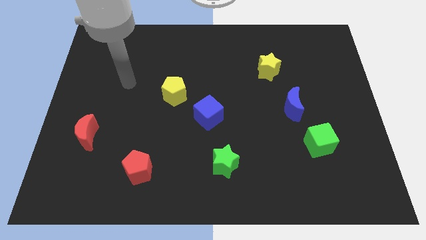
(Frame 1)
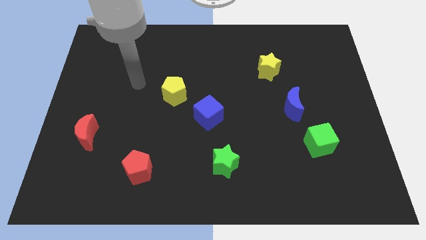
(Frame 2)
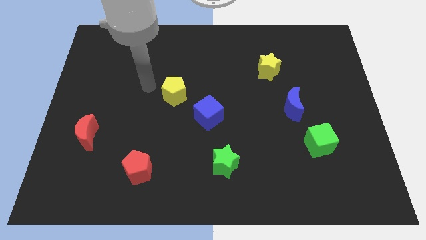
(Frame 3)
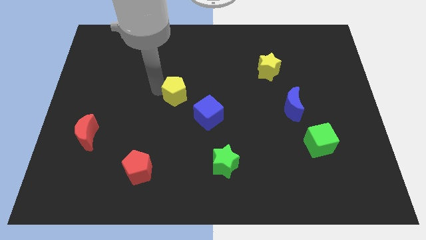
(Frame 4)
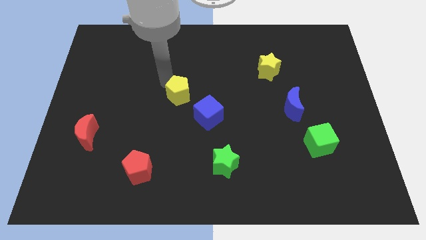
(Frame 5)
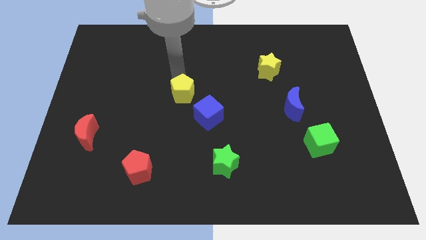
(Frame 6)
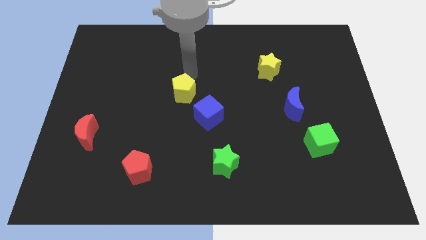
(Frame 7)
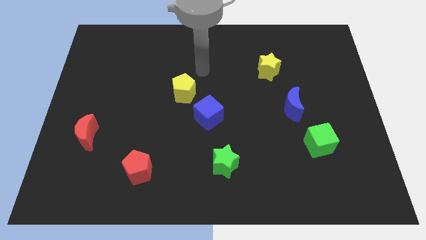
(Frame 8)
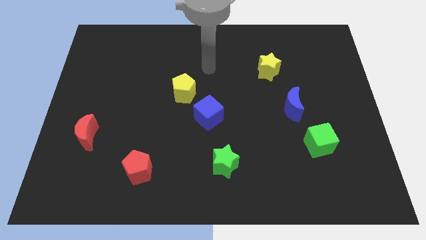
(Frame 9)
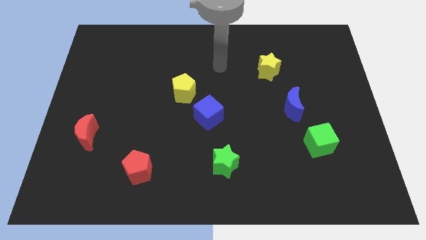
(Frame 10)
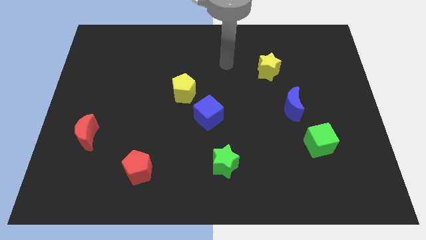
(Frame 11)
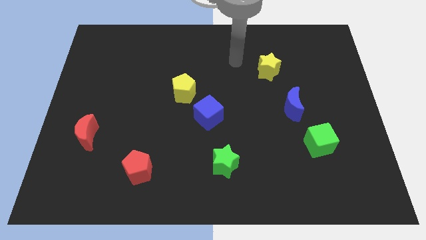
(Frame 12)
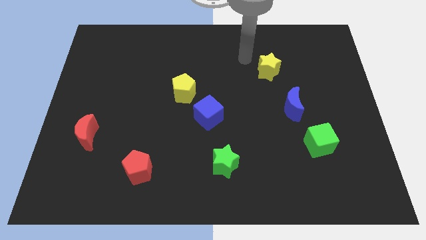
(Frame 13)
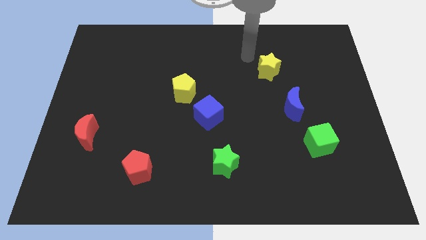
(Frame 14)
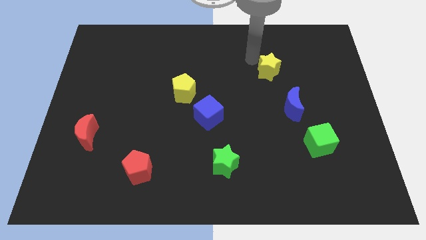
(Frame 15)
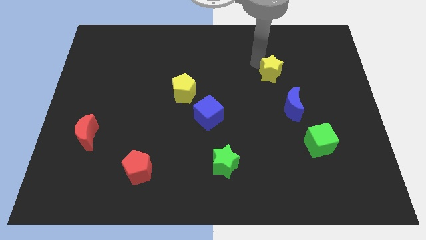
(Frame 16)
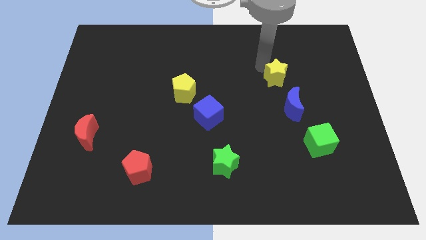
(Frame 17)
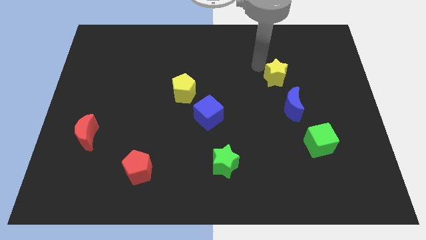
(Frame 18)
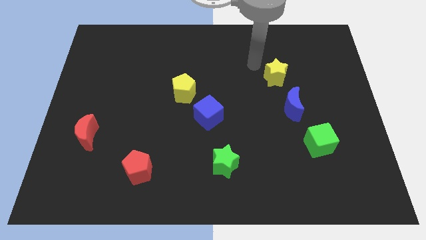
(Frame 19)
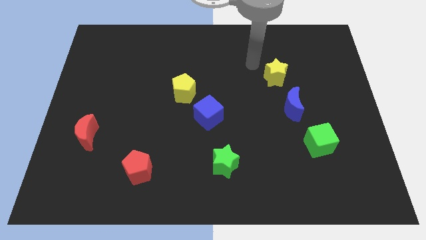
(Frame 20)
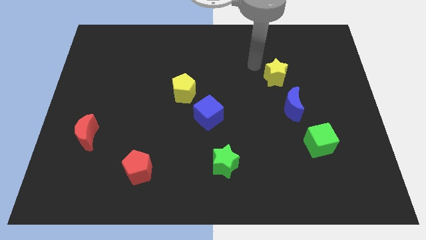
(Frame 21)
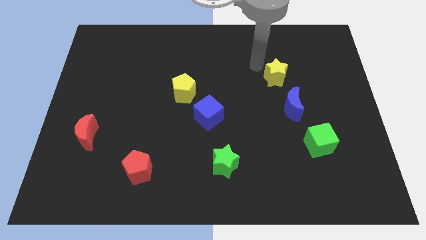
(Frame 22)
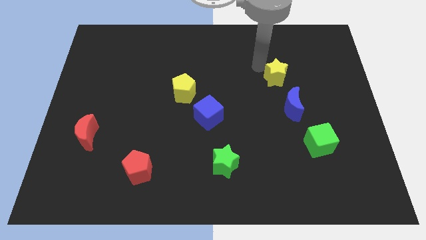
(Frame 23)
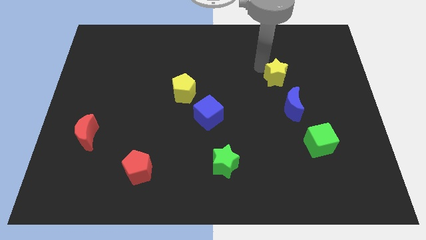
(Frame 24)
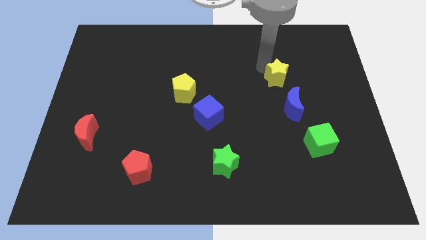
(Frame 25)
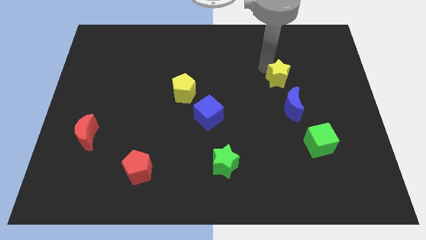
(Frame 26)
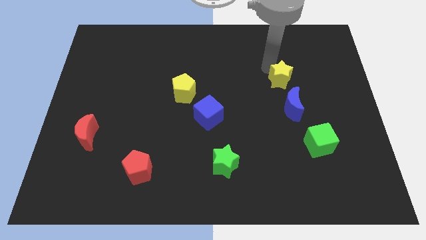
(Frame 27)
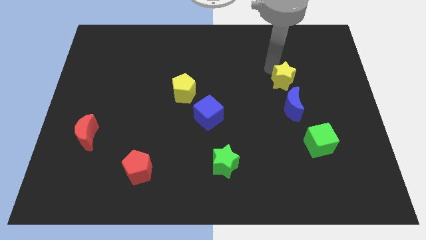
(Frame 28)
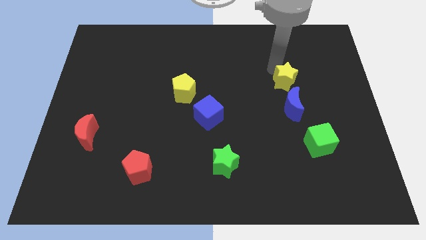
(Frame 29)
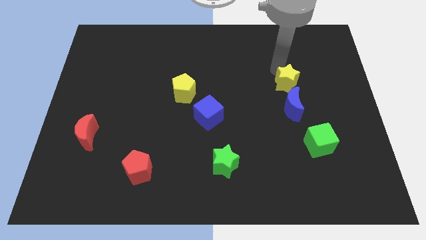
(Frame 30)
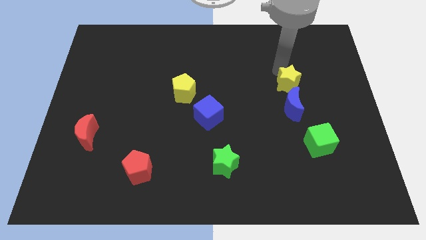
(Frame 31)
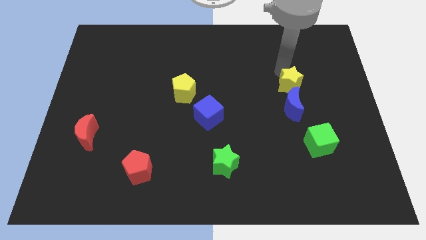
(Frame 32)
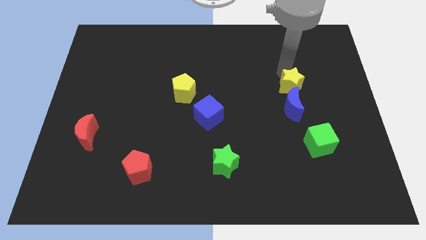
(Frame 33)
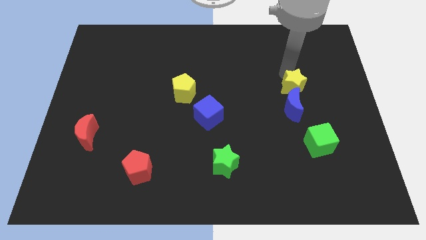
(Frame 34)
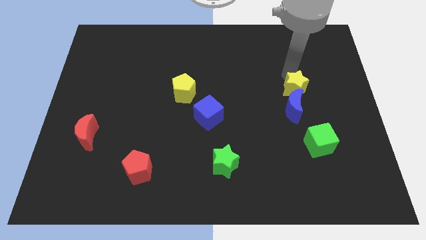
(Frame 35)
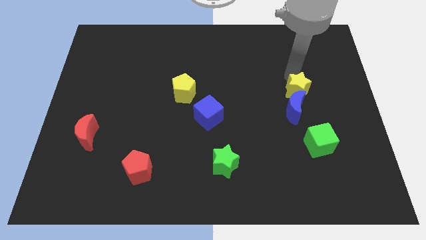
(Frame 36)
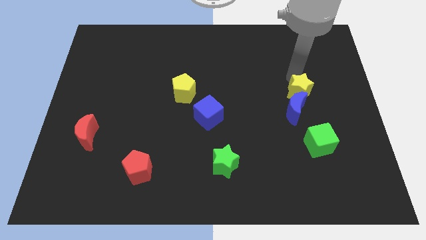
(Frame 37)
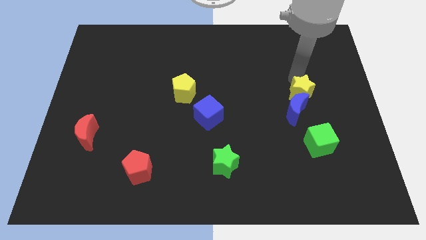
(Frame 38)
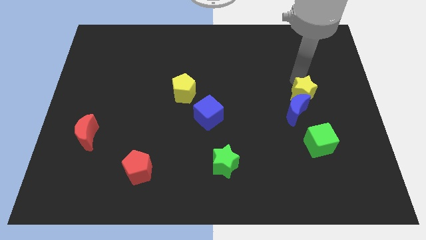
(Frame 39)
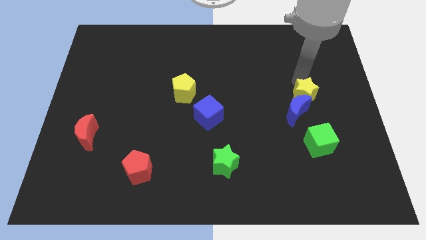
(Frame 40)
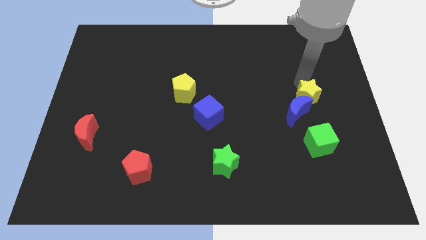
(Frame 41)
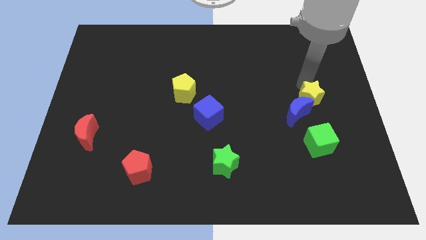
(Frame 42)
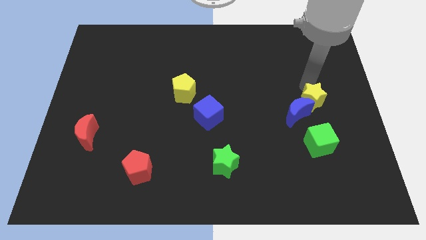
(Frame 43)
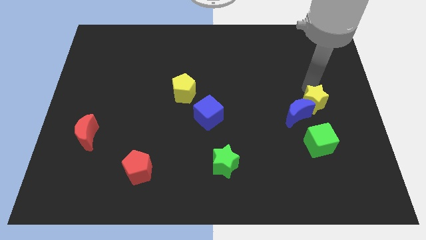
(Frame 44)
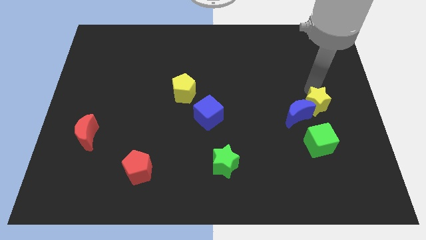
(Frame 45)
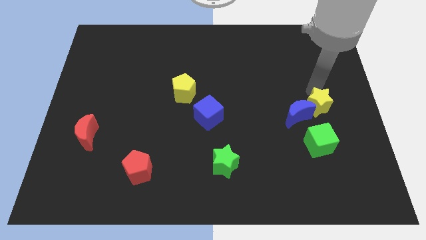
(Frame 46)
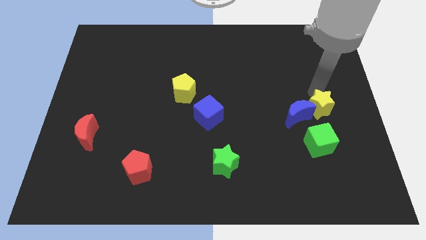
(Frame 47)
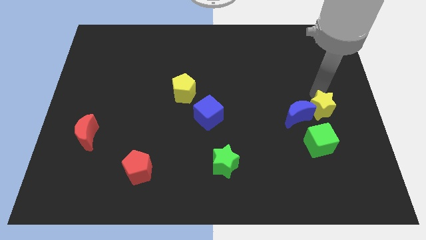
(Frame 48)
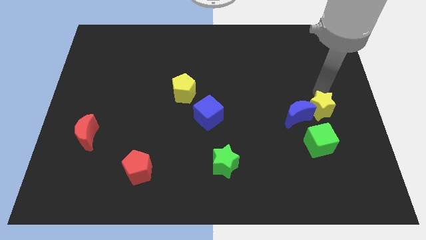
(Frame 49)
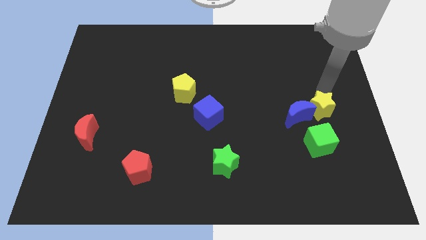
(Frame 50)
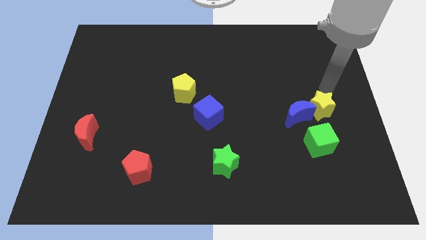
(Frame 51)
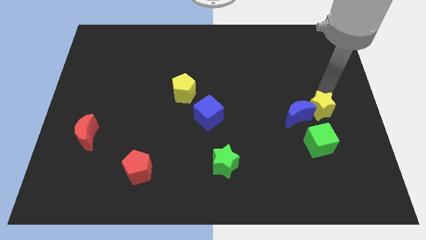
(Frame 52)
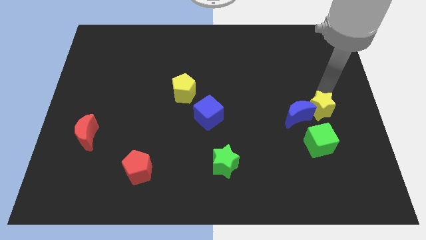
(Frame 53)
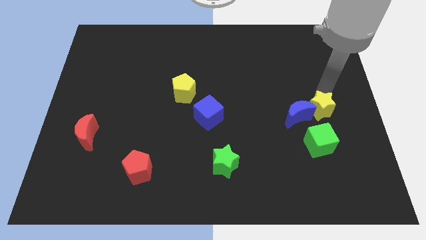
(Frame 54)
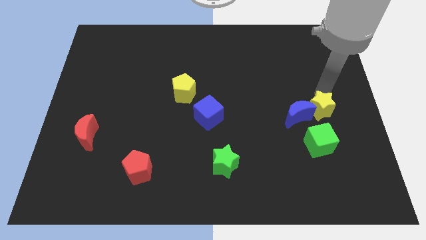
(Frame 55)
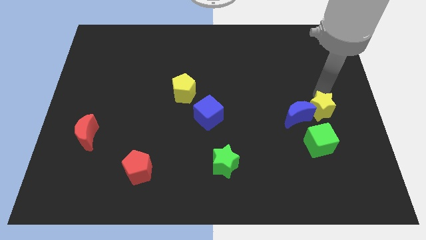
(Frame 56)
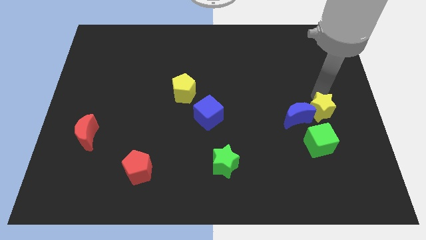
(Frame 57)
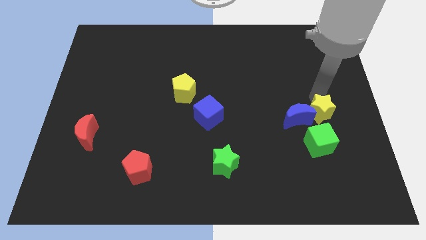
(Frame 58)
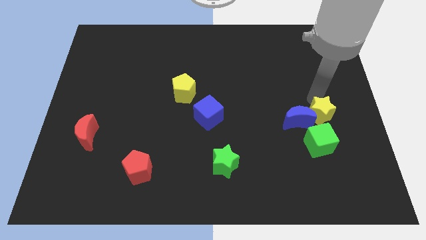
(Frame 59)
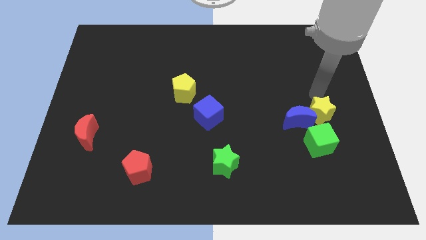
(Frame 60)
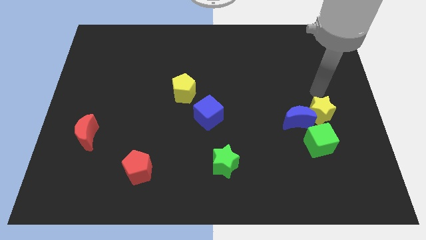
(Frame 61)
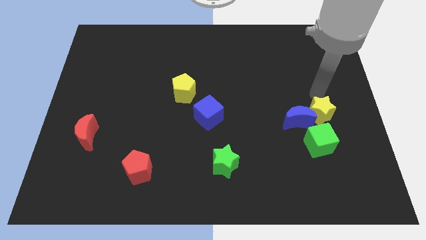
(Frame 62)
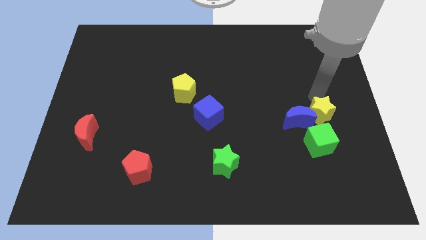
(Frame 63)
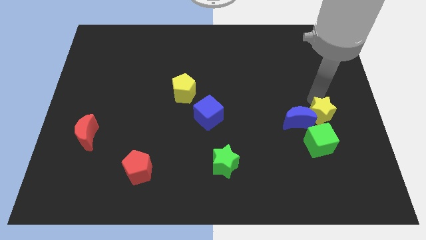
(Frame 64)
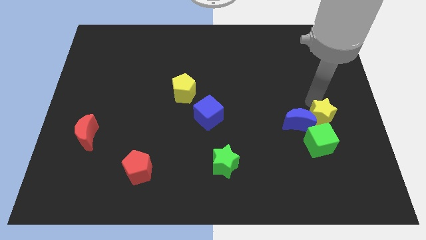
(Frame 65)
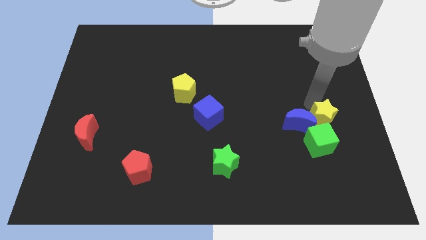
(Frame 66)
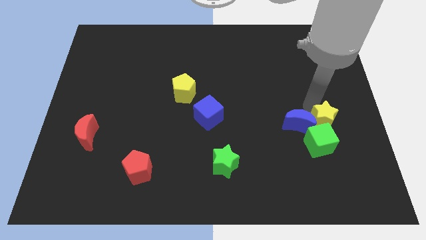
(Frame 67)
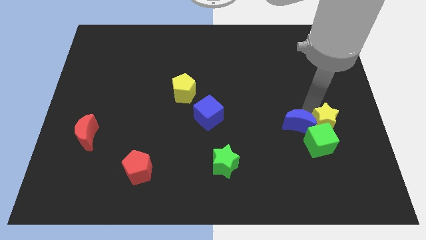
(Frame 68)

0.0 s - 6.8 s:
push the yellow star towards the green cube

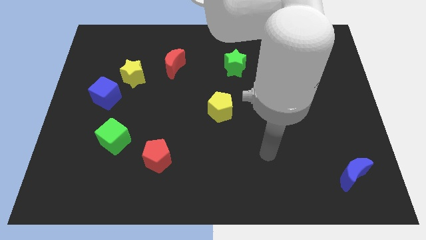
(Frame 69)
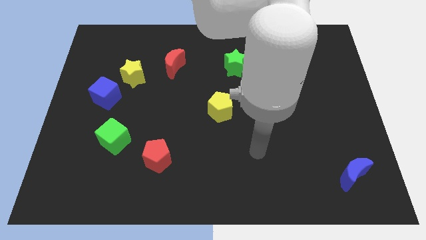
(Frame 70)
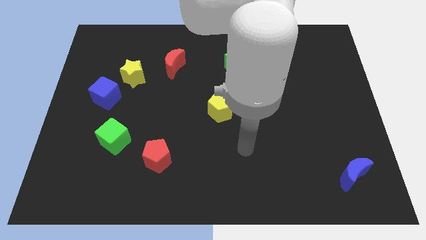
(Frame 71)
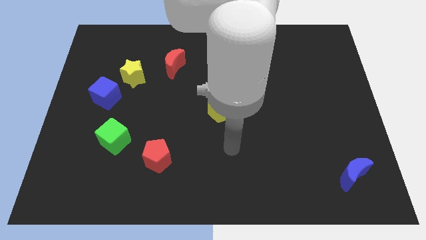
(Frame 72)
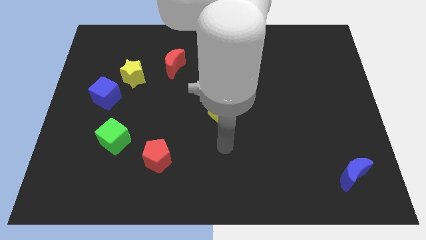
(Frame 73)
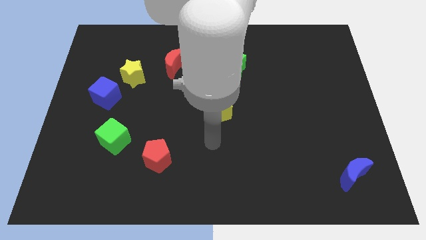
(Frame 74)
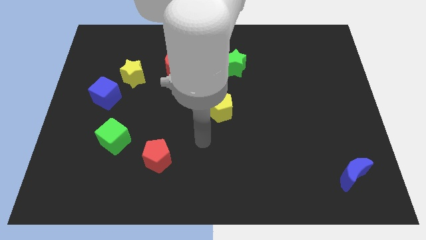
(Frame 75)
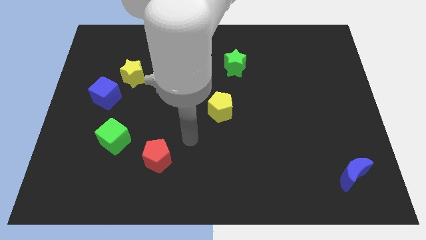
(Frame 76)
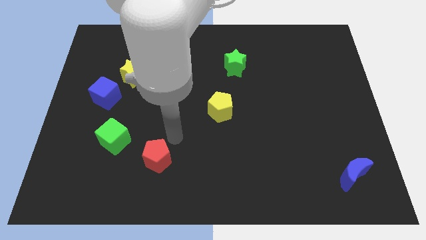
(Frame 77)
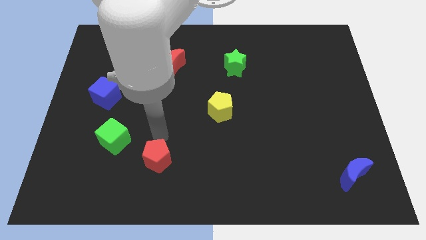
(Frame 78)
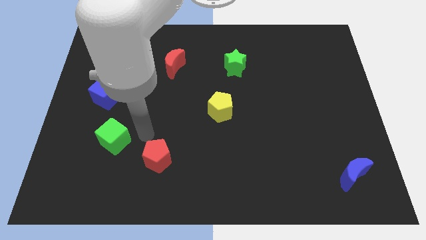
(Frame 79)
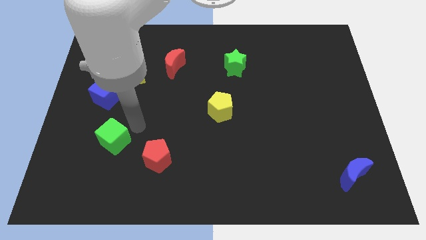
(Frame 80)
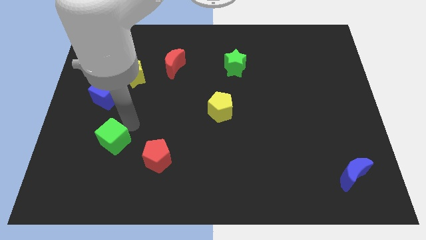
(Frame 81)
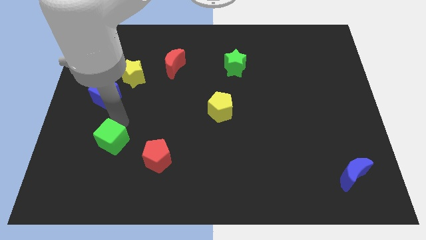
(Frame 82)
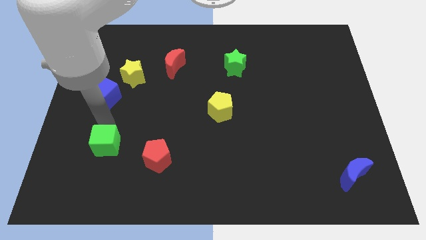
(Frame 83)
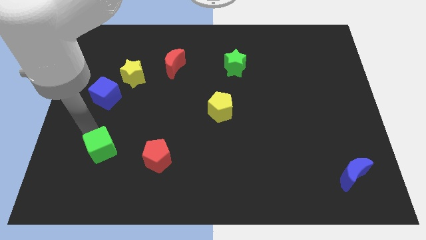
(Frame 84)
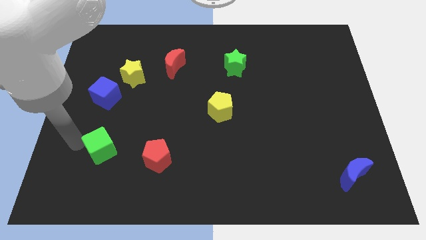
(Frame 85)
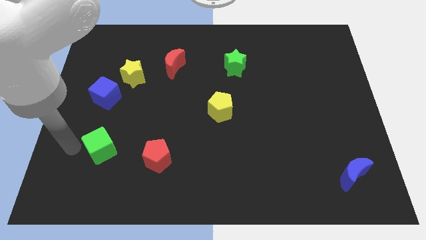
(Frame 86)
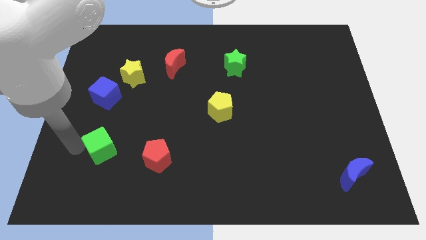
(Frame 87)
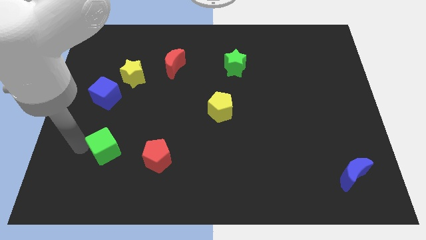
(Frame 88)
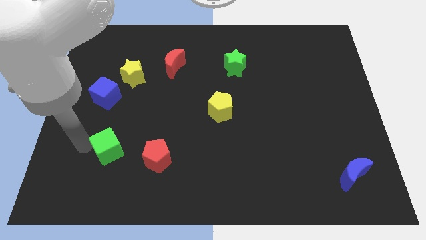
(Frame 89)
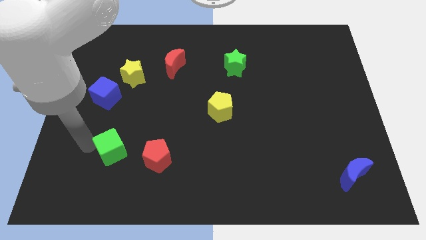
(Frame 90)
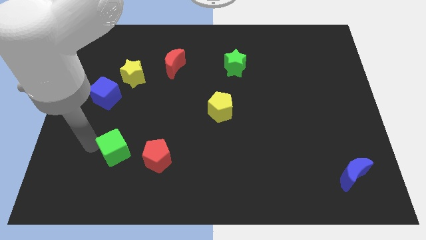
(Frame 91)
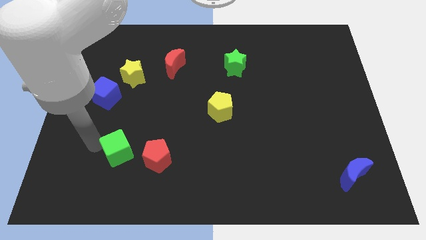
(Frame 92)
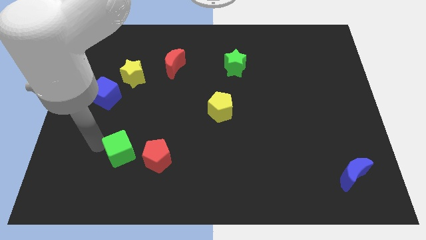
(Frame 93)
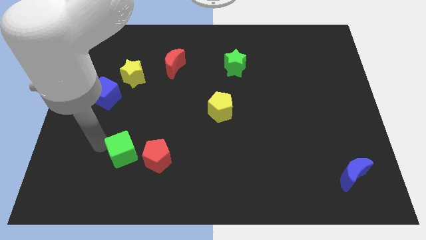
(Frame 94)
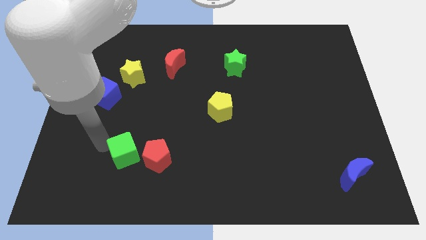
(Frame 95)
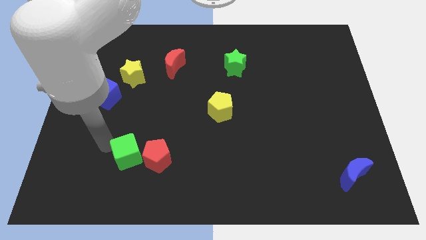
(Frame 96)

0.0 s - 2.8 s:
slide the green cube towards the red pentagon
